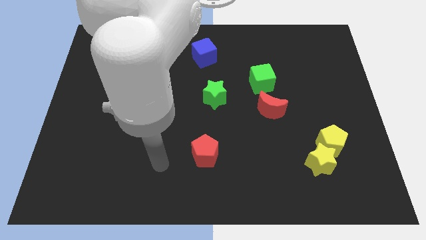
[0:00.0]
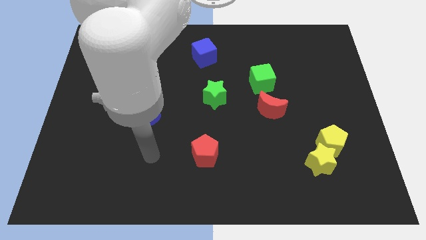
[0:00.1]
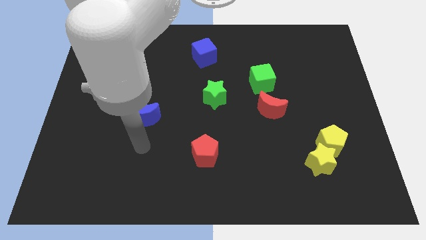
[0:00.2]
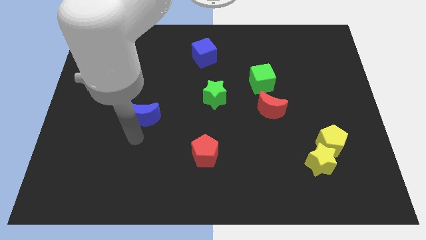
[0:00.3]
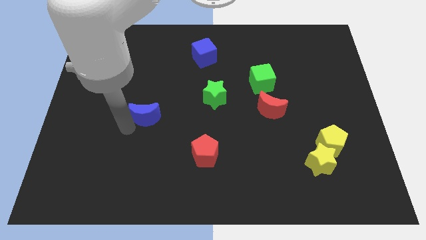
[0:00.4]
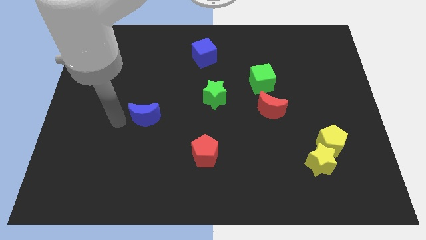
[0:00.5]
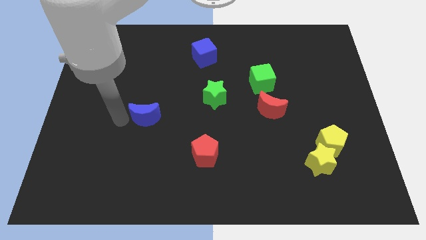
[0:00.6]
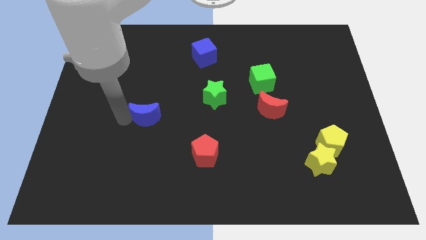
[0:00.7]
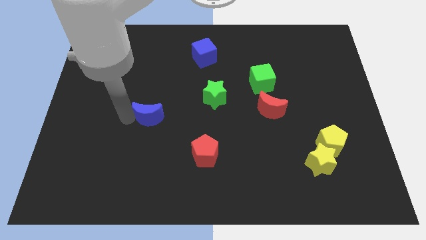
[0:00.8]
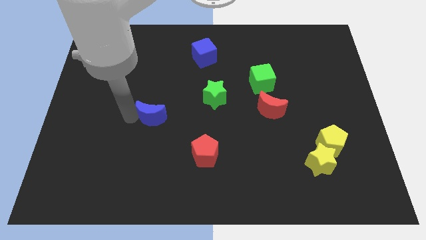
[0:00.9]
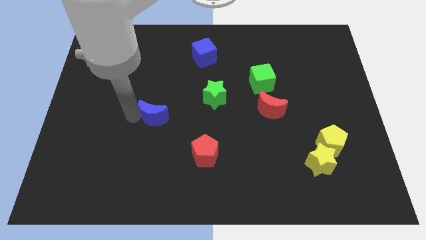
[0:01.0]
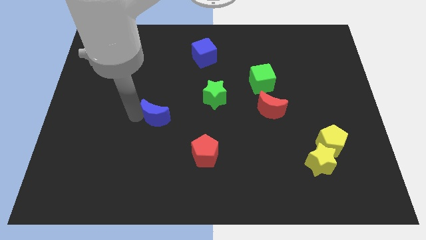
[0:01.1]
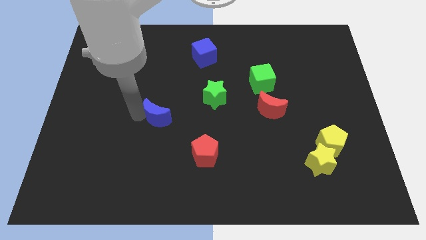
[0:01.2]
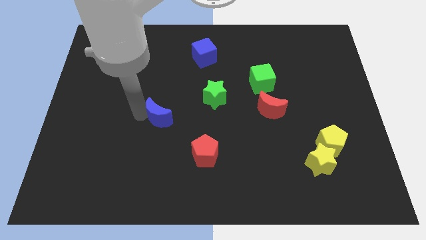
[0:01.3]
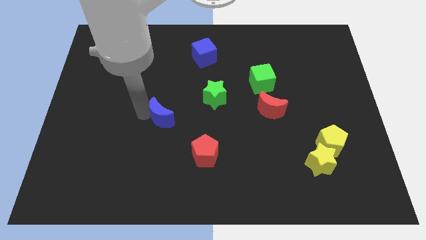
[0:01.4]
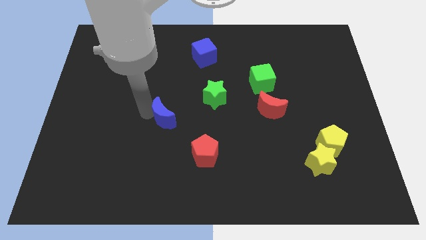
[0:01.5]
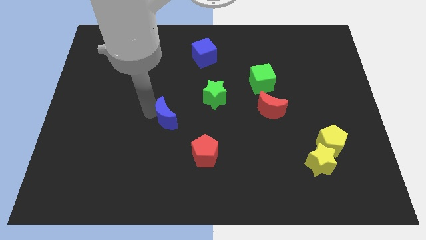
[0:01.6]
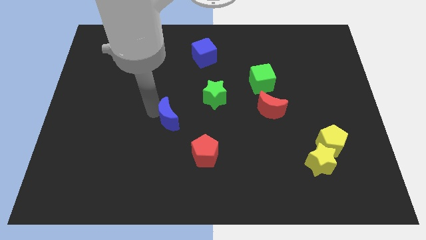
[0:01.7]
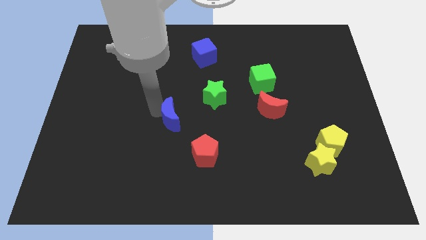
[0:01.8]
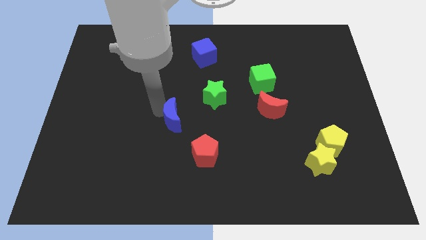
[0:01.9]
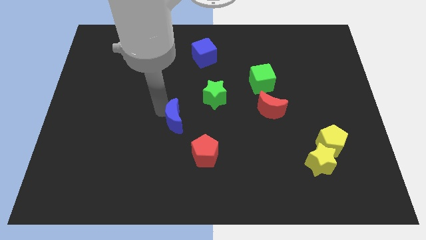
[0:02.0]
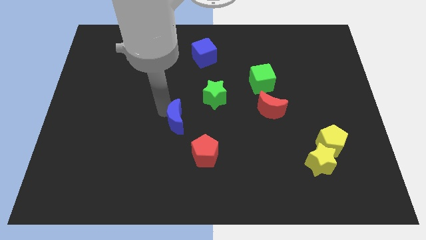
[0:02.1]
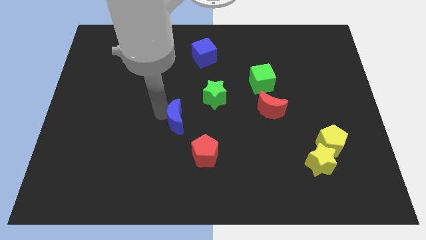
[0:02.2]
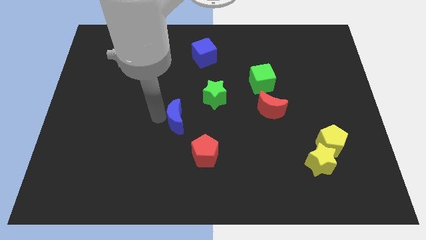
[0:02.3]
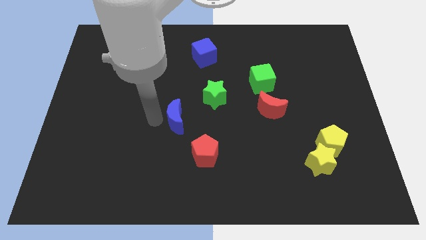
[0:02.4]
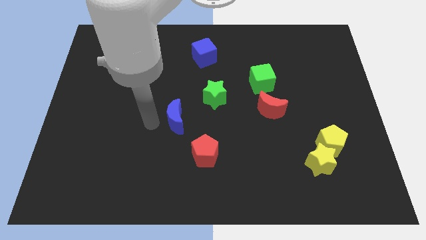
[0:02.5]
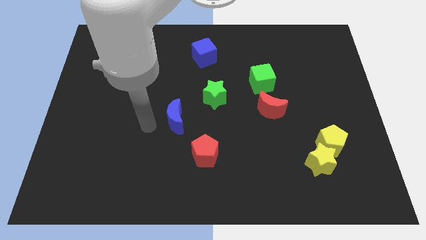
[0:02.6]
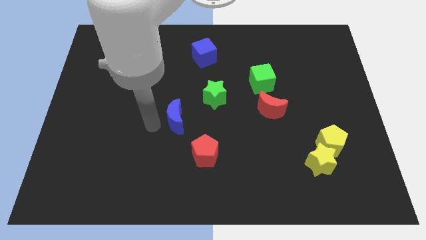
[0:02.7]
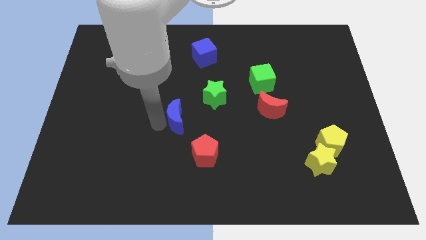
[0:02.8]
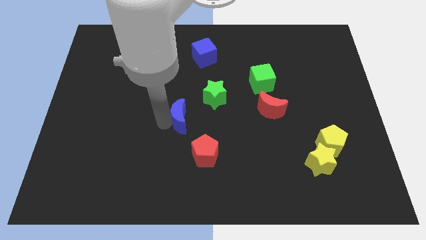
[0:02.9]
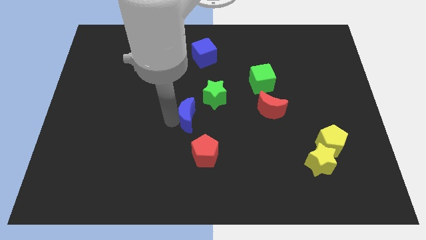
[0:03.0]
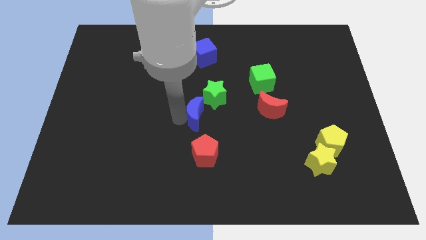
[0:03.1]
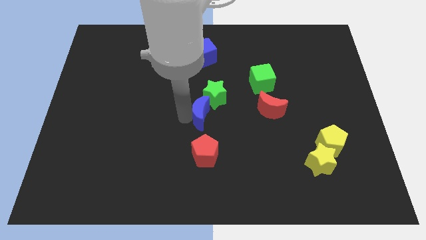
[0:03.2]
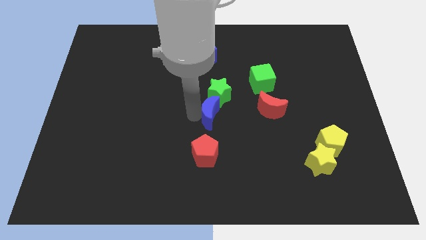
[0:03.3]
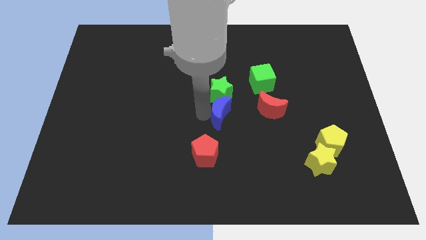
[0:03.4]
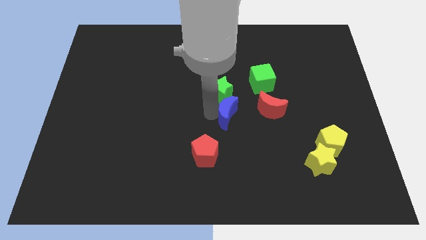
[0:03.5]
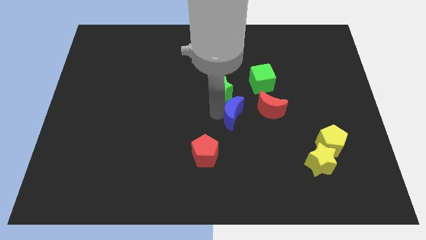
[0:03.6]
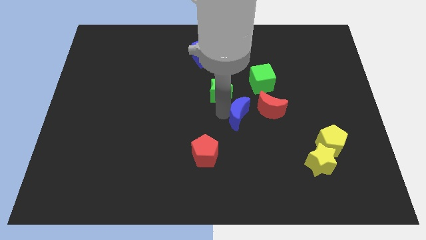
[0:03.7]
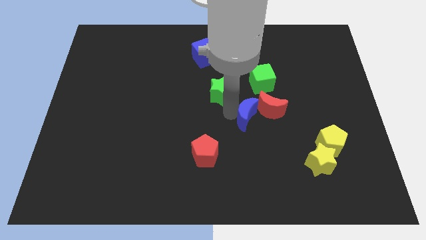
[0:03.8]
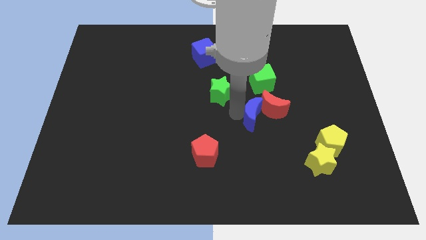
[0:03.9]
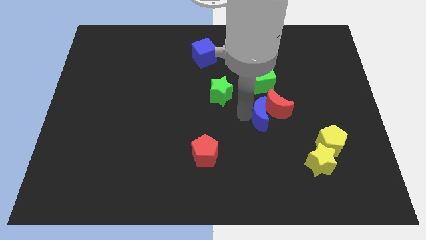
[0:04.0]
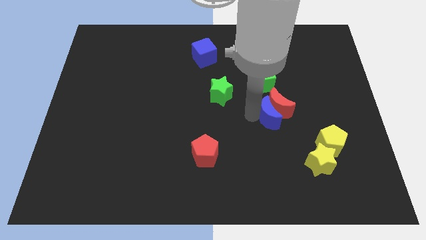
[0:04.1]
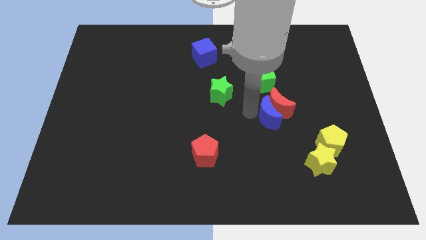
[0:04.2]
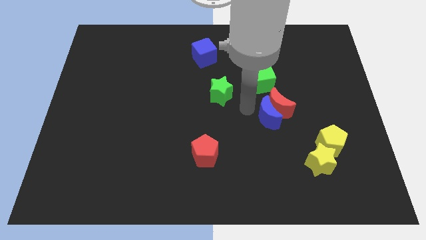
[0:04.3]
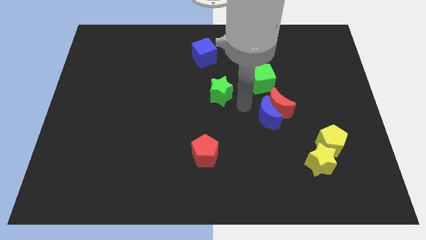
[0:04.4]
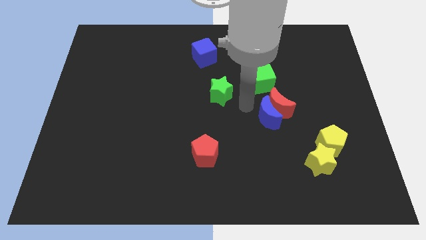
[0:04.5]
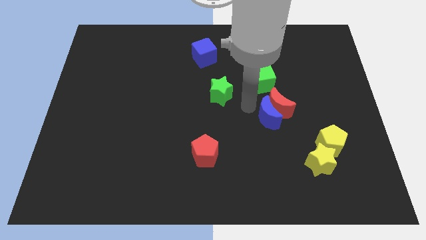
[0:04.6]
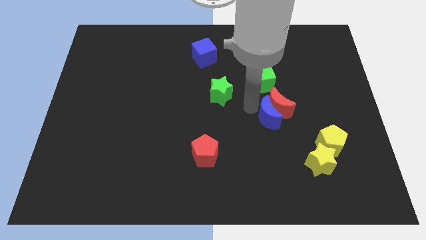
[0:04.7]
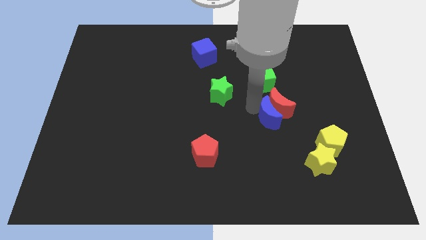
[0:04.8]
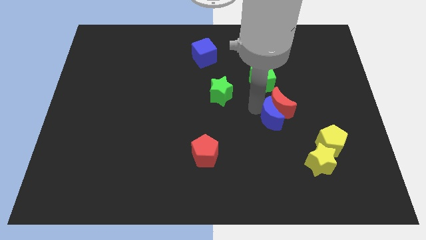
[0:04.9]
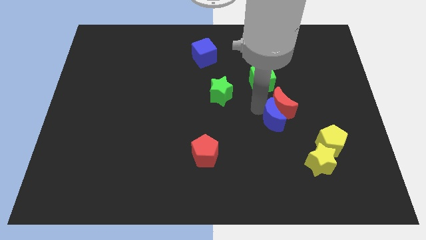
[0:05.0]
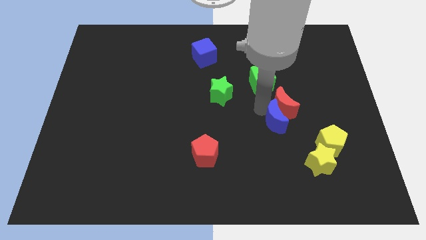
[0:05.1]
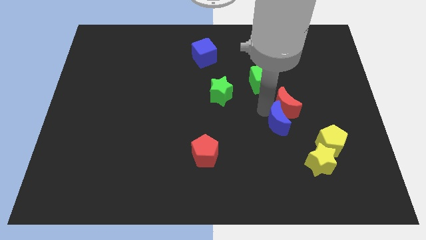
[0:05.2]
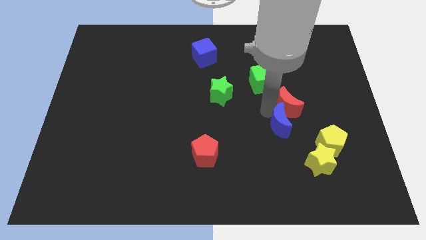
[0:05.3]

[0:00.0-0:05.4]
slide the blue moon to the top left side of the yellow pentagon

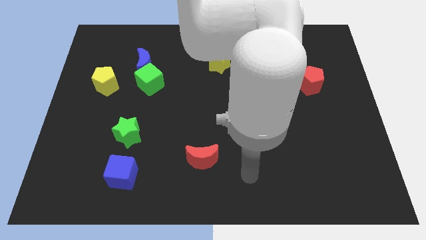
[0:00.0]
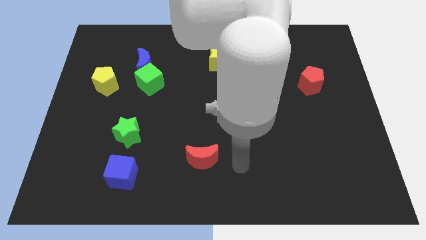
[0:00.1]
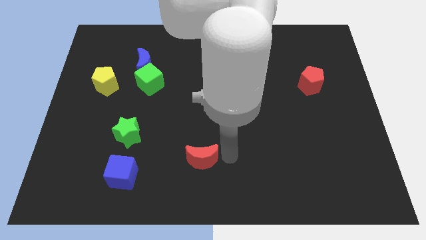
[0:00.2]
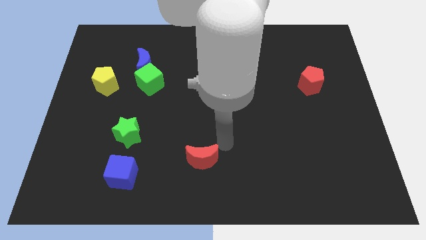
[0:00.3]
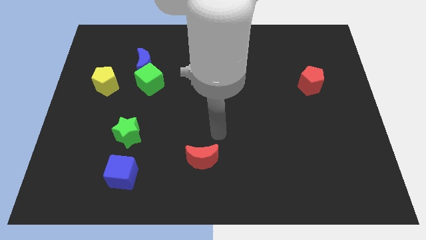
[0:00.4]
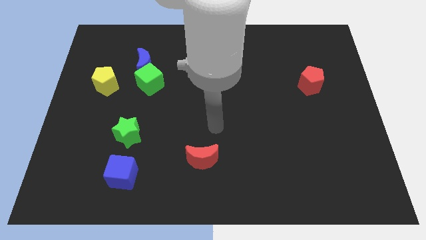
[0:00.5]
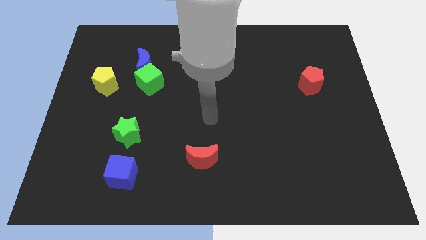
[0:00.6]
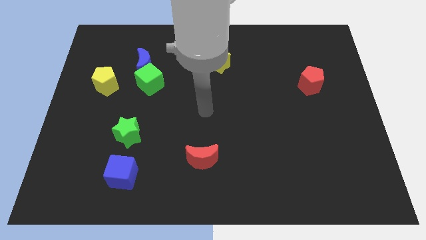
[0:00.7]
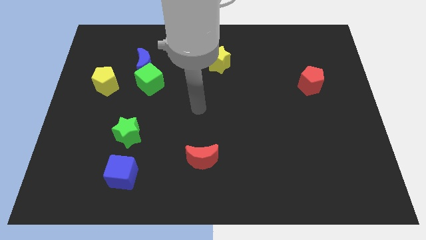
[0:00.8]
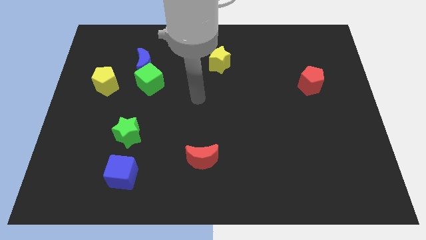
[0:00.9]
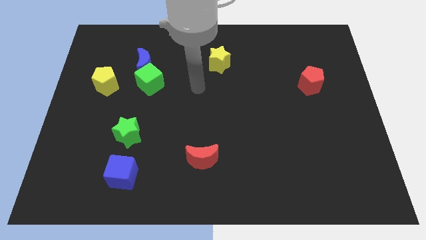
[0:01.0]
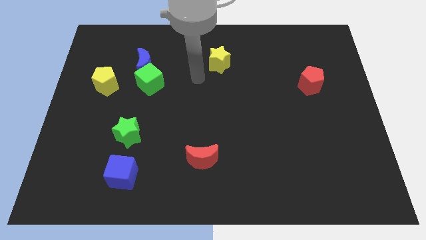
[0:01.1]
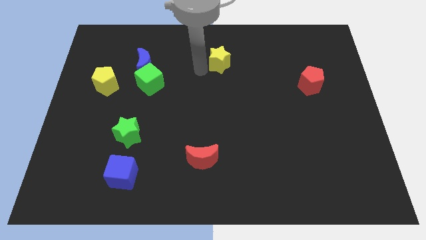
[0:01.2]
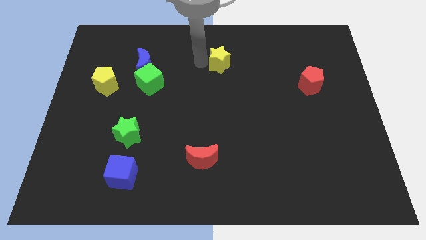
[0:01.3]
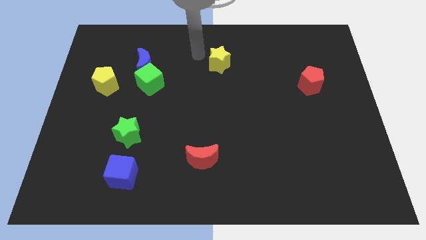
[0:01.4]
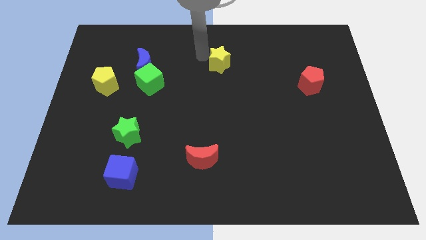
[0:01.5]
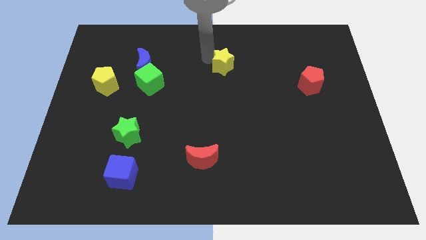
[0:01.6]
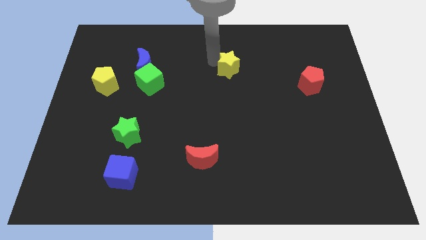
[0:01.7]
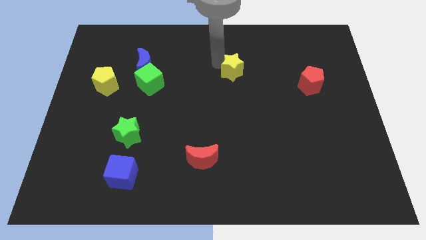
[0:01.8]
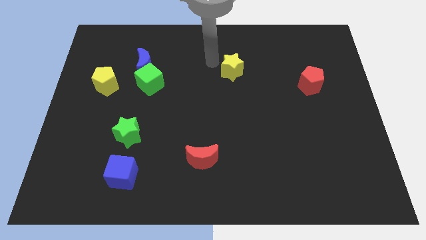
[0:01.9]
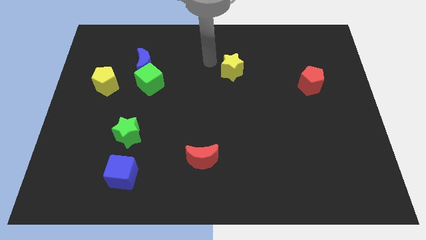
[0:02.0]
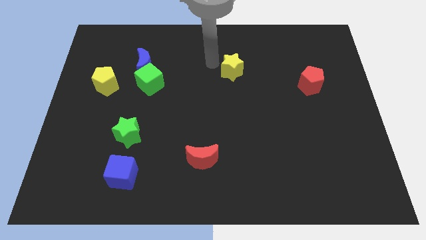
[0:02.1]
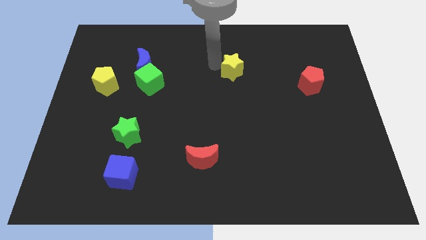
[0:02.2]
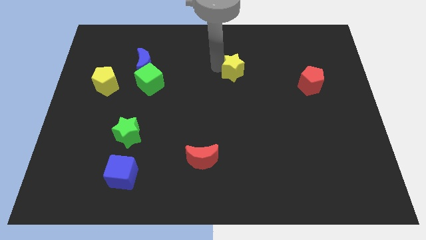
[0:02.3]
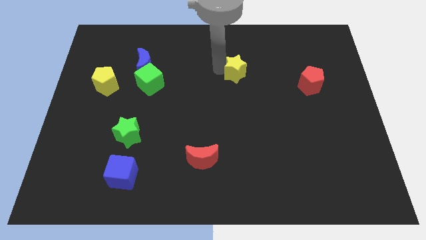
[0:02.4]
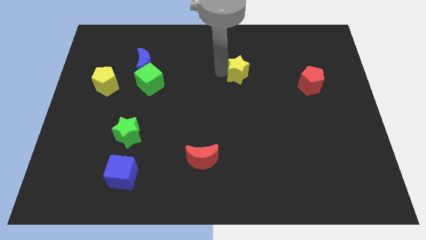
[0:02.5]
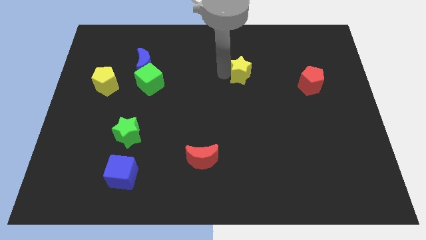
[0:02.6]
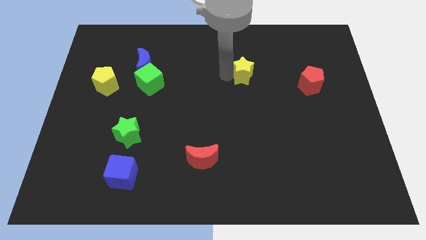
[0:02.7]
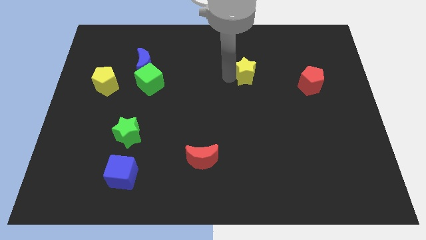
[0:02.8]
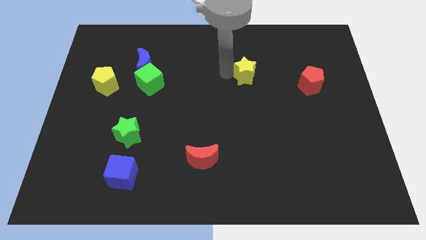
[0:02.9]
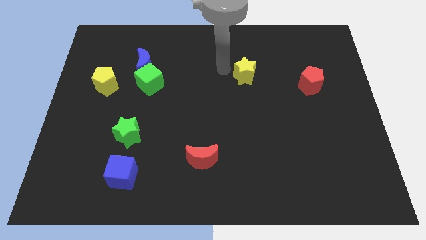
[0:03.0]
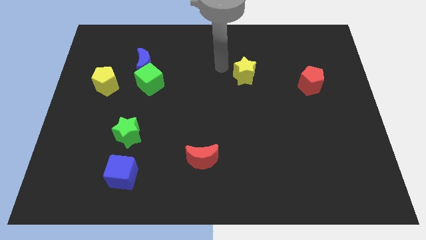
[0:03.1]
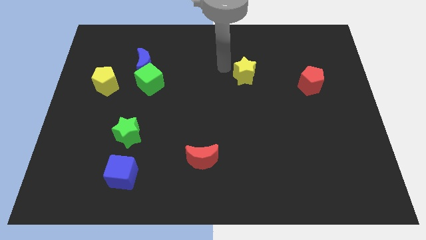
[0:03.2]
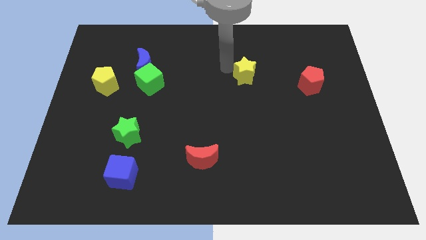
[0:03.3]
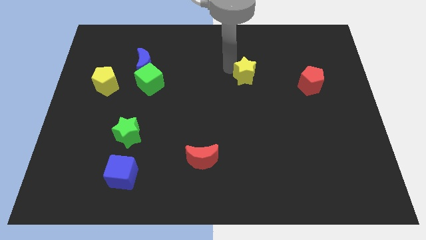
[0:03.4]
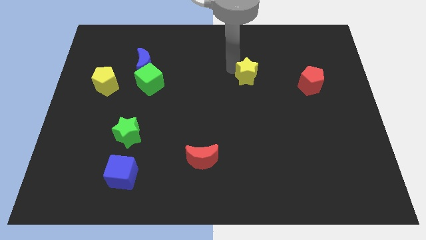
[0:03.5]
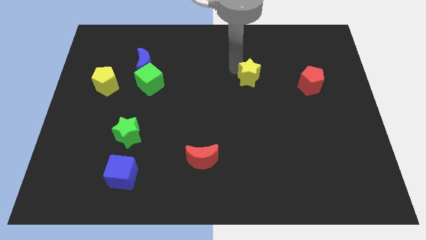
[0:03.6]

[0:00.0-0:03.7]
move the yellow star just left of the red pentagon
